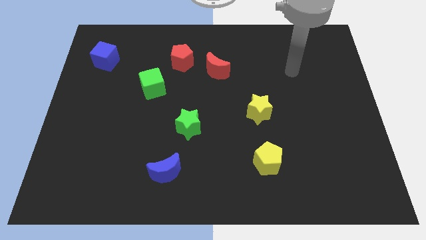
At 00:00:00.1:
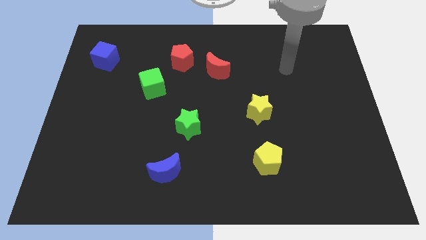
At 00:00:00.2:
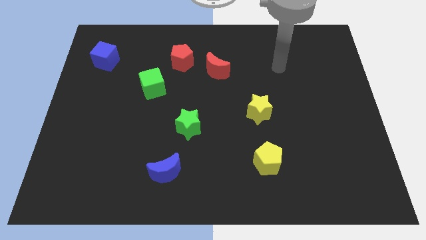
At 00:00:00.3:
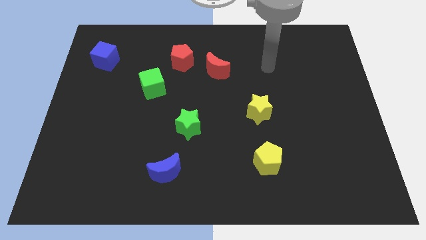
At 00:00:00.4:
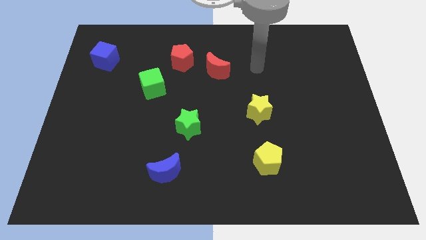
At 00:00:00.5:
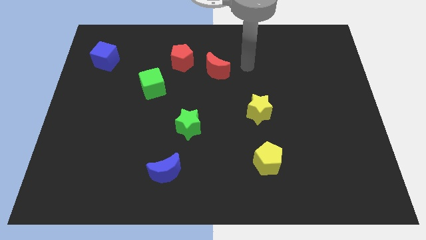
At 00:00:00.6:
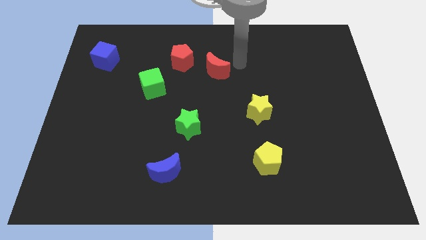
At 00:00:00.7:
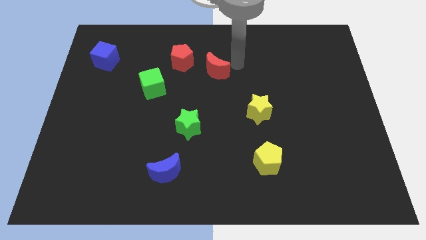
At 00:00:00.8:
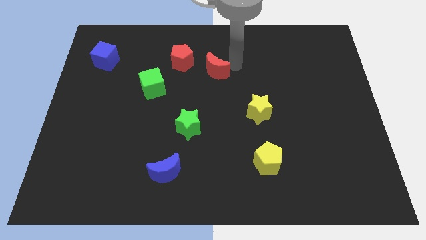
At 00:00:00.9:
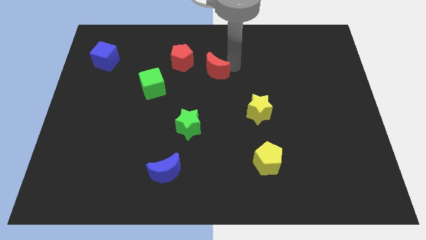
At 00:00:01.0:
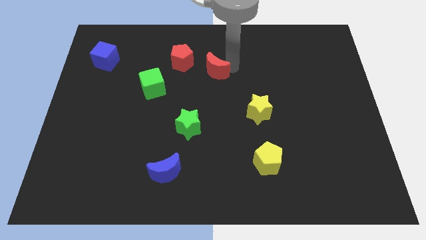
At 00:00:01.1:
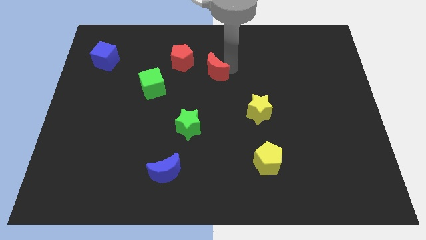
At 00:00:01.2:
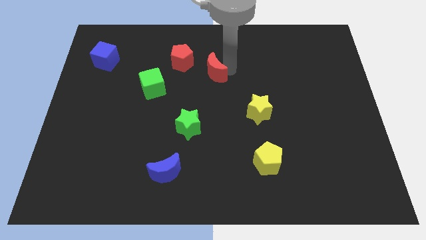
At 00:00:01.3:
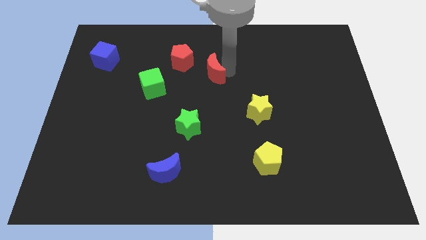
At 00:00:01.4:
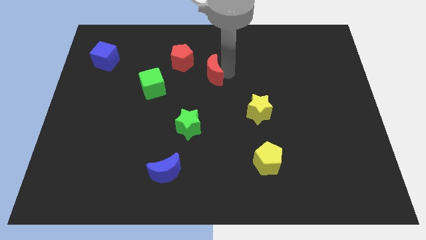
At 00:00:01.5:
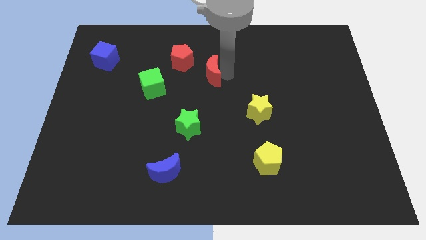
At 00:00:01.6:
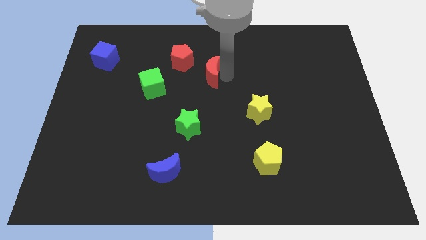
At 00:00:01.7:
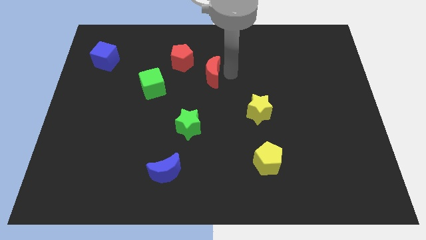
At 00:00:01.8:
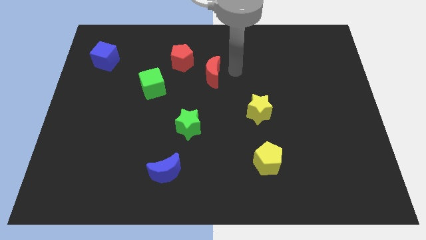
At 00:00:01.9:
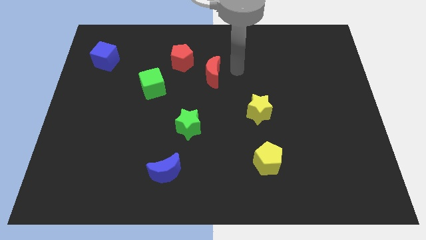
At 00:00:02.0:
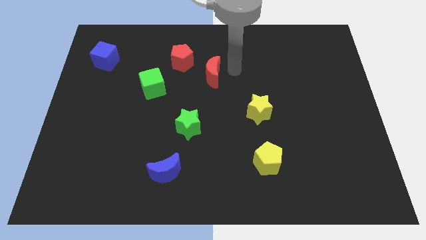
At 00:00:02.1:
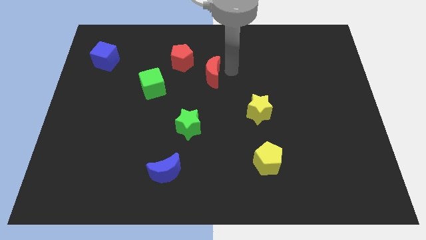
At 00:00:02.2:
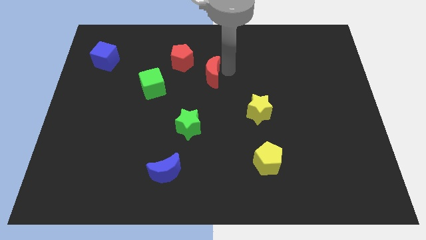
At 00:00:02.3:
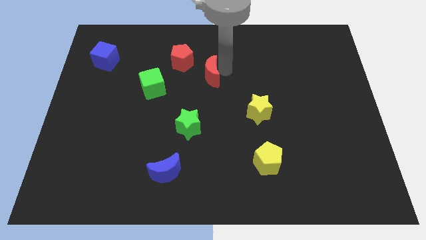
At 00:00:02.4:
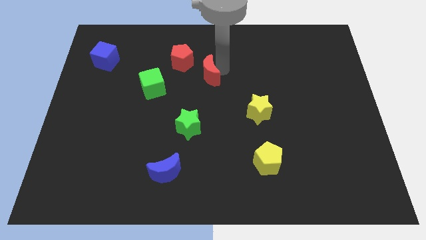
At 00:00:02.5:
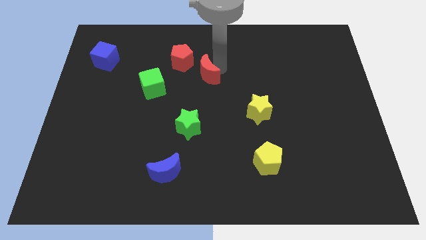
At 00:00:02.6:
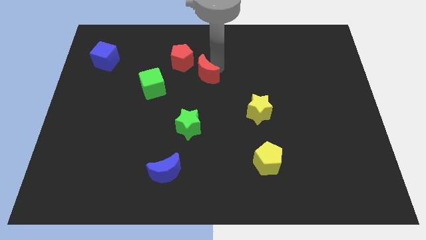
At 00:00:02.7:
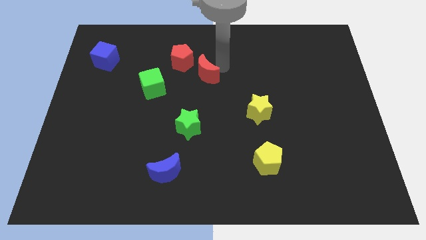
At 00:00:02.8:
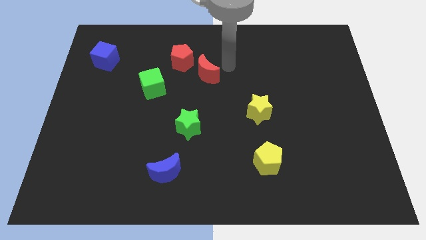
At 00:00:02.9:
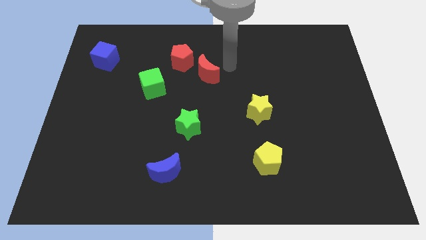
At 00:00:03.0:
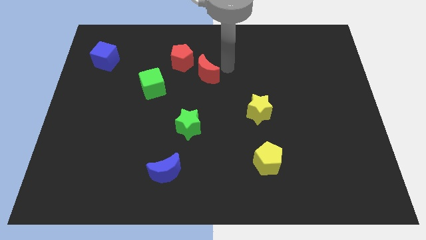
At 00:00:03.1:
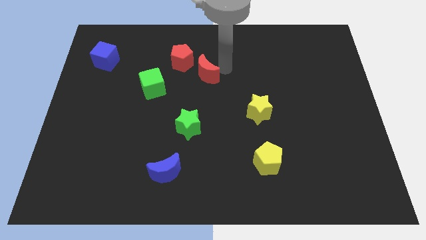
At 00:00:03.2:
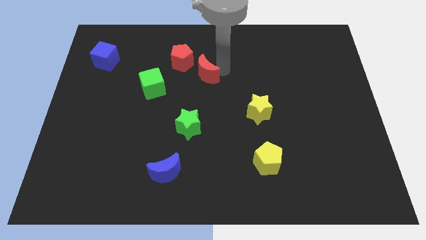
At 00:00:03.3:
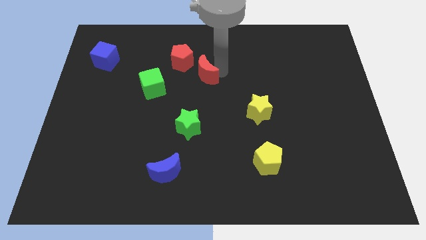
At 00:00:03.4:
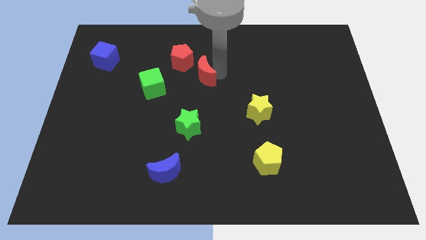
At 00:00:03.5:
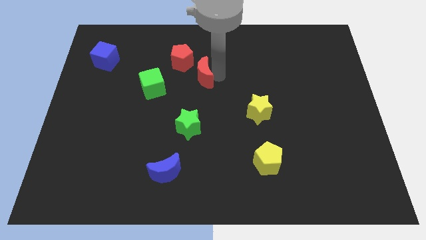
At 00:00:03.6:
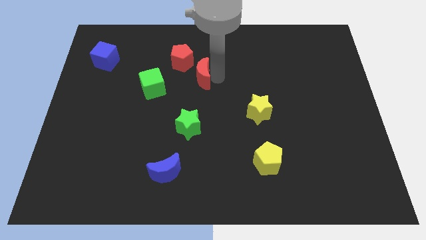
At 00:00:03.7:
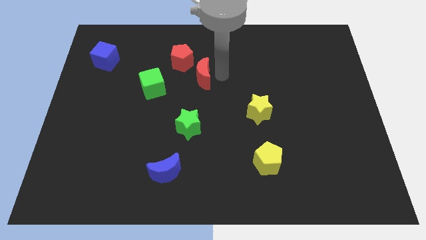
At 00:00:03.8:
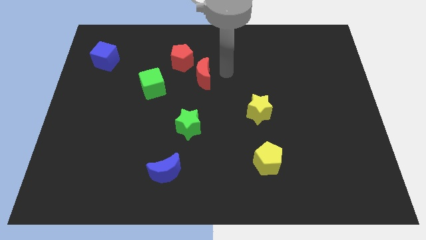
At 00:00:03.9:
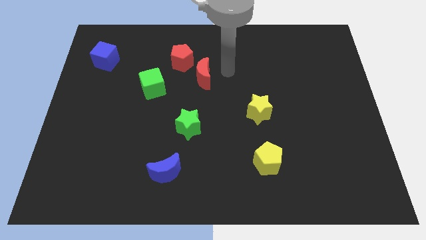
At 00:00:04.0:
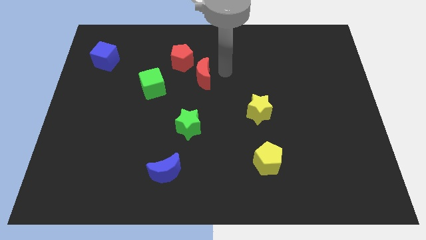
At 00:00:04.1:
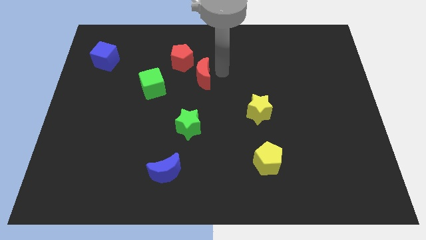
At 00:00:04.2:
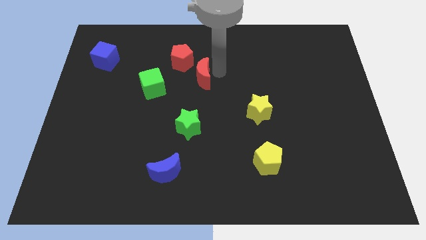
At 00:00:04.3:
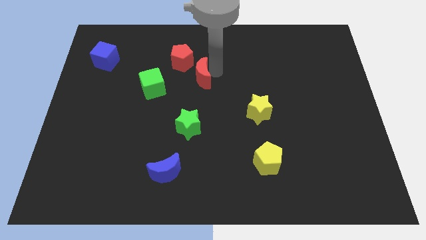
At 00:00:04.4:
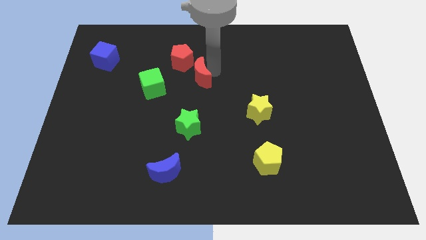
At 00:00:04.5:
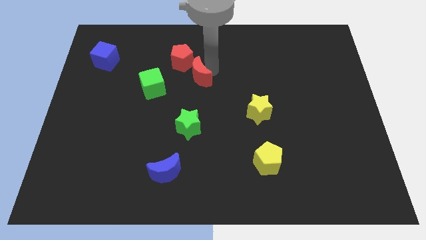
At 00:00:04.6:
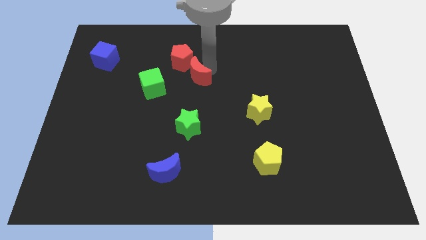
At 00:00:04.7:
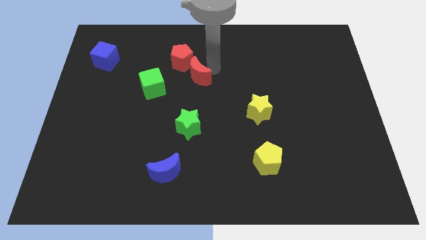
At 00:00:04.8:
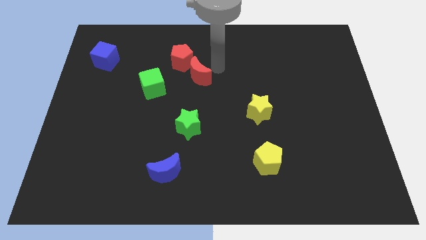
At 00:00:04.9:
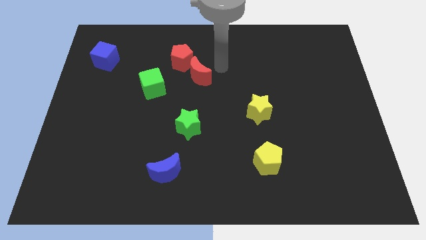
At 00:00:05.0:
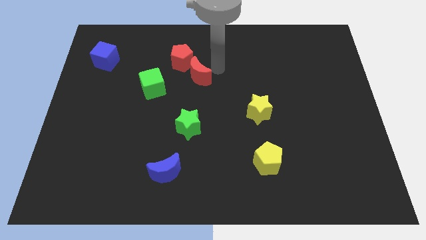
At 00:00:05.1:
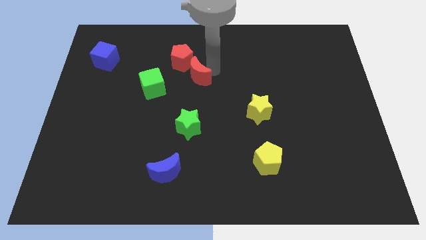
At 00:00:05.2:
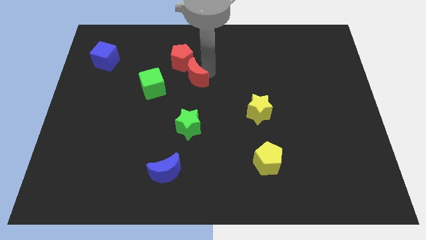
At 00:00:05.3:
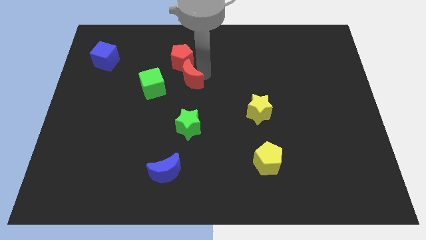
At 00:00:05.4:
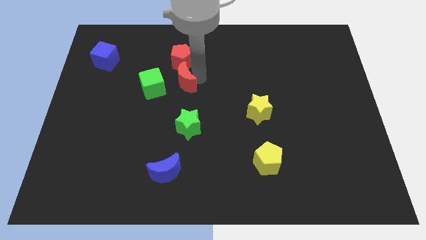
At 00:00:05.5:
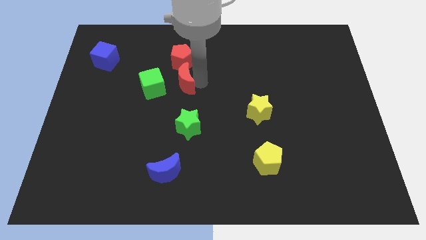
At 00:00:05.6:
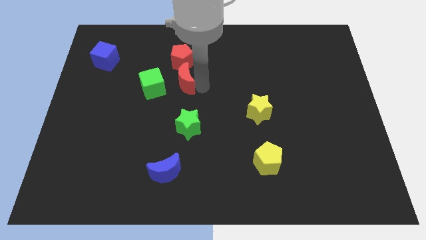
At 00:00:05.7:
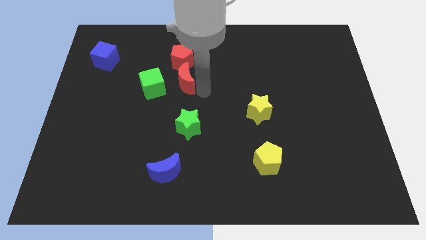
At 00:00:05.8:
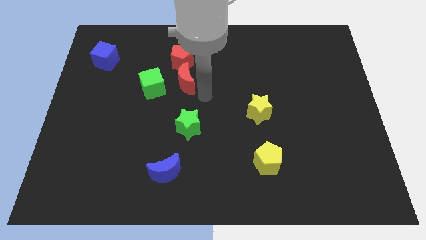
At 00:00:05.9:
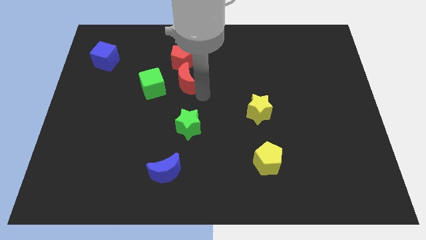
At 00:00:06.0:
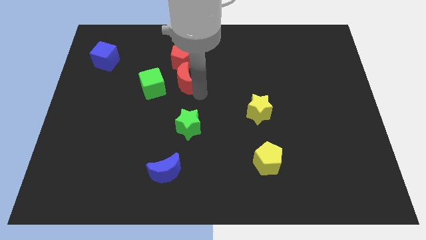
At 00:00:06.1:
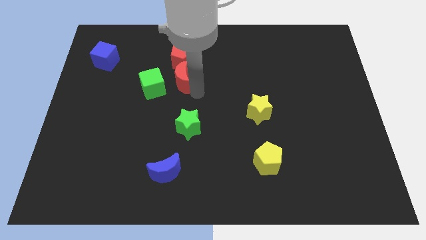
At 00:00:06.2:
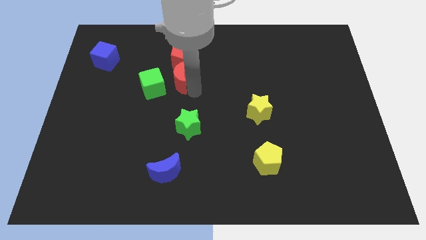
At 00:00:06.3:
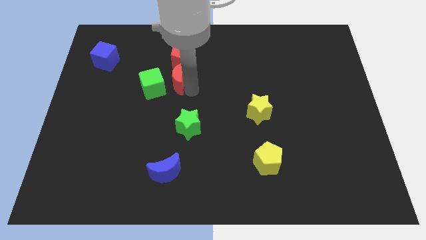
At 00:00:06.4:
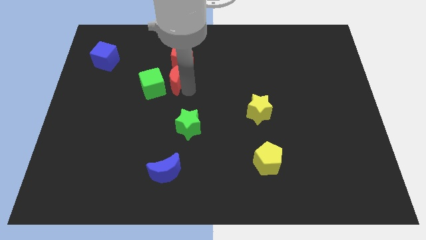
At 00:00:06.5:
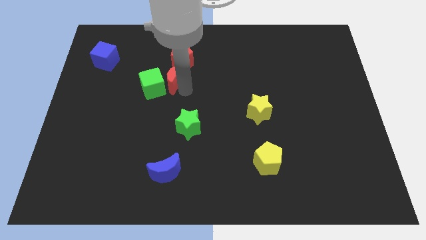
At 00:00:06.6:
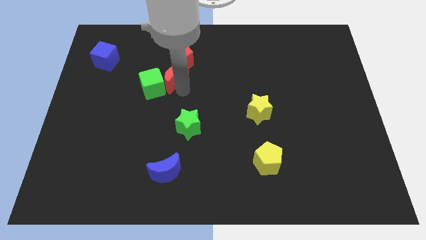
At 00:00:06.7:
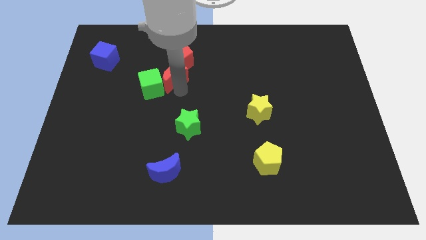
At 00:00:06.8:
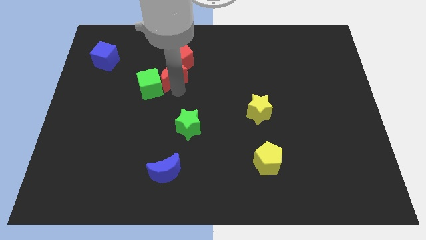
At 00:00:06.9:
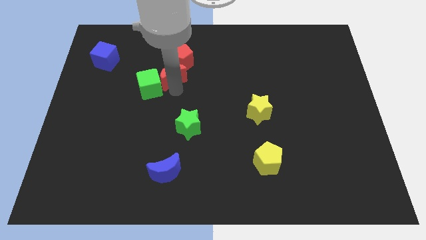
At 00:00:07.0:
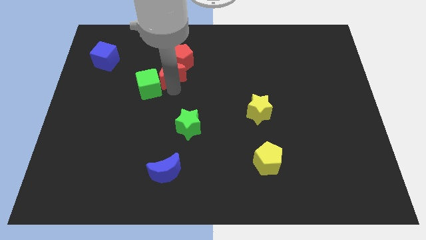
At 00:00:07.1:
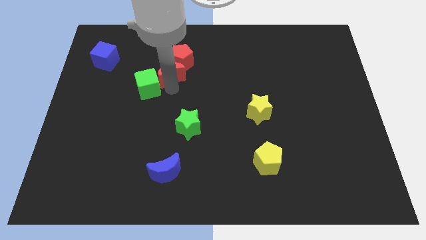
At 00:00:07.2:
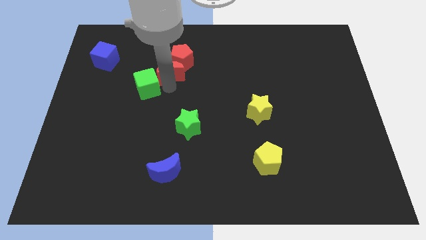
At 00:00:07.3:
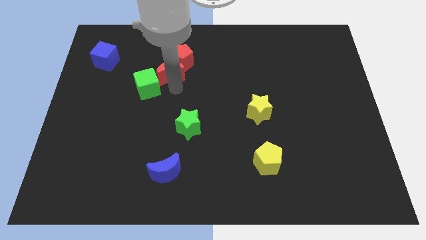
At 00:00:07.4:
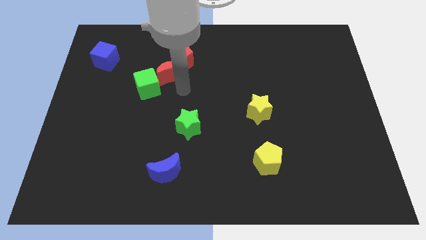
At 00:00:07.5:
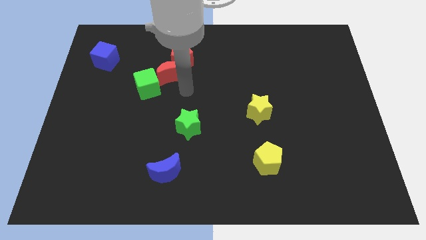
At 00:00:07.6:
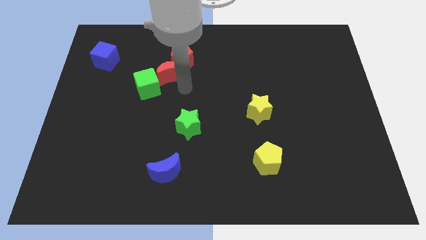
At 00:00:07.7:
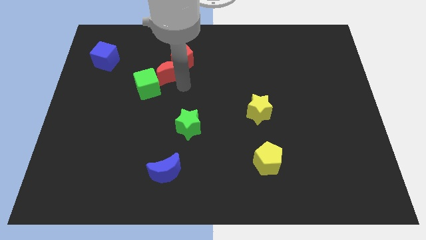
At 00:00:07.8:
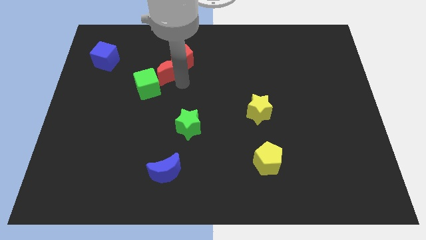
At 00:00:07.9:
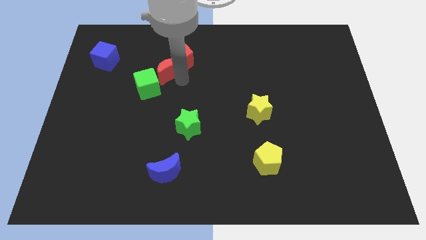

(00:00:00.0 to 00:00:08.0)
put the red moon to the top of the green cube
